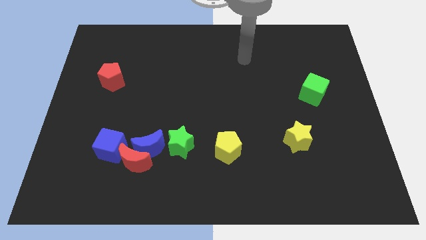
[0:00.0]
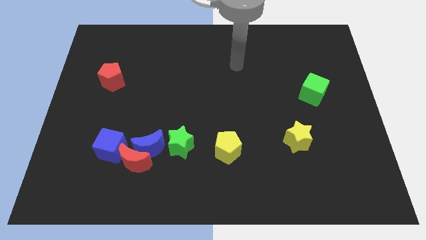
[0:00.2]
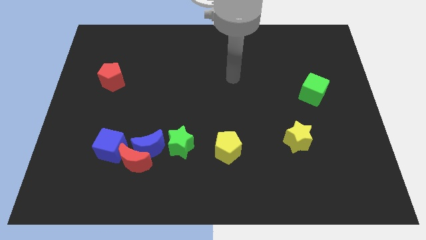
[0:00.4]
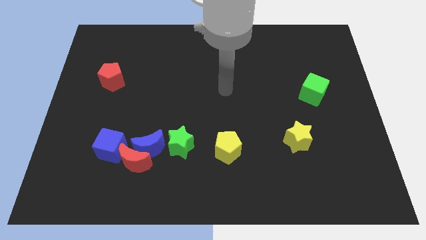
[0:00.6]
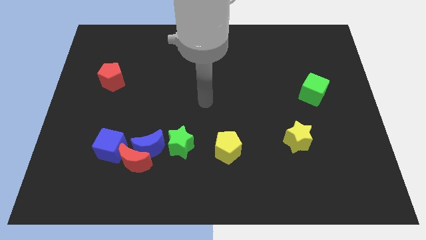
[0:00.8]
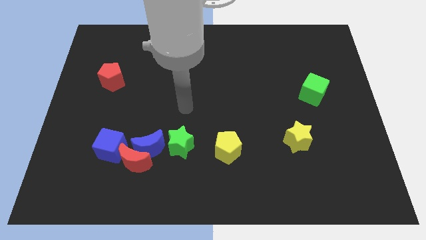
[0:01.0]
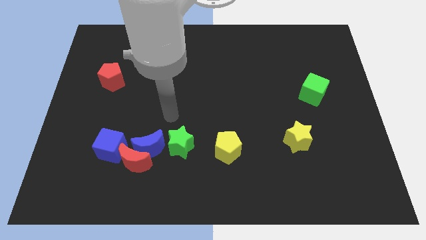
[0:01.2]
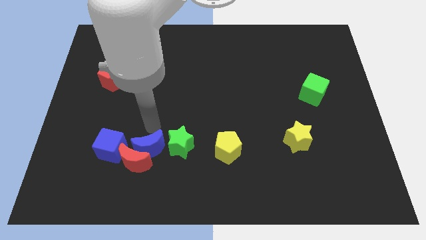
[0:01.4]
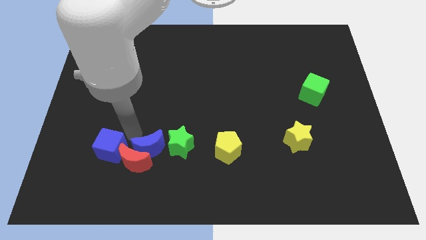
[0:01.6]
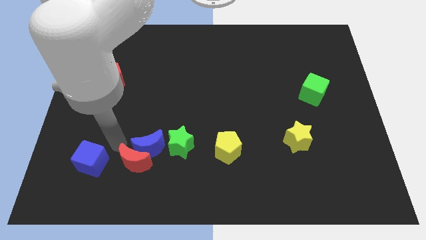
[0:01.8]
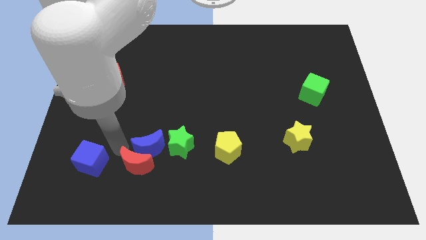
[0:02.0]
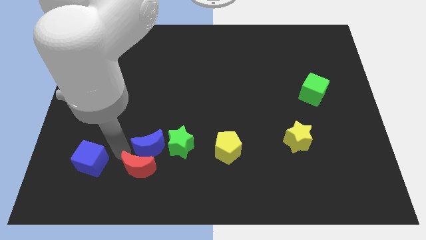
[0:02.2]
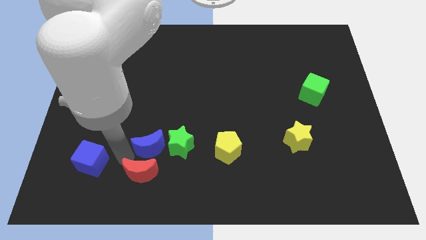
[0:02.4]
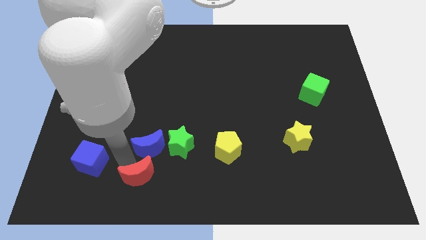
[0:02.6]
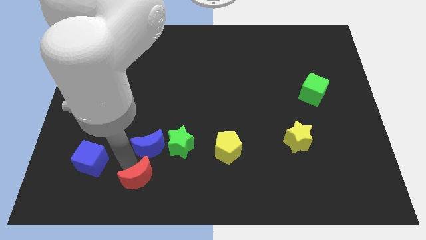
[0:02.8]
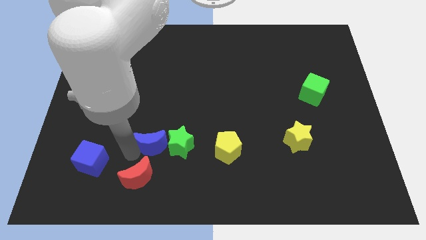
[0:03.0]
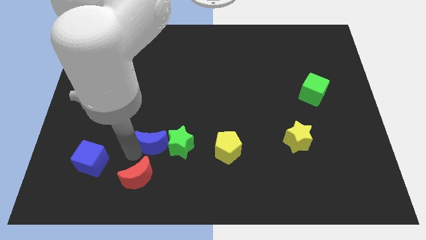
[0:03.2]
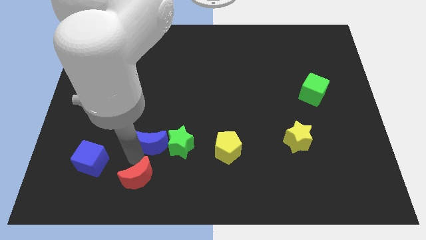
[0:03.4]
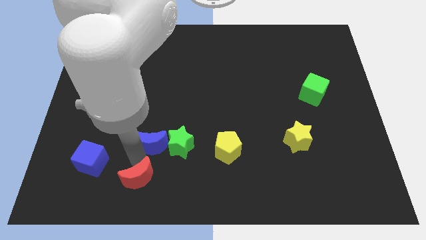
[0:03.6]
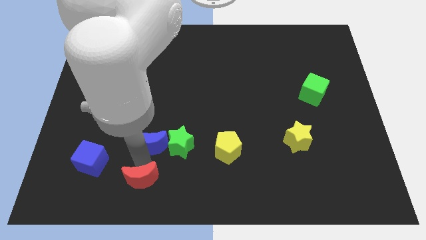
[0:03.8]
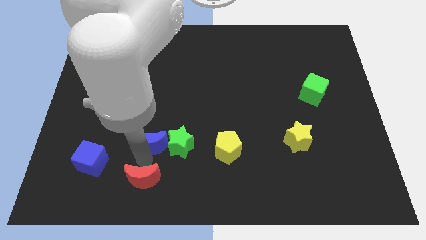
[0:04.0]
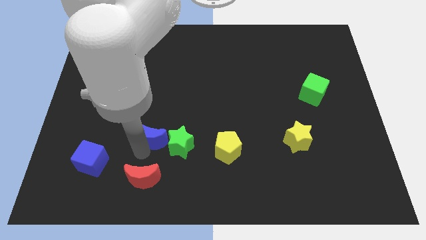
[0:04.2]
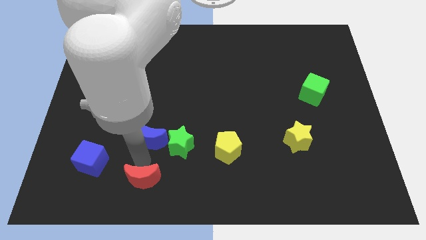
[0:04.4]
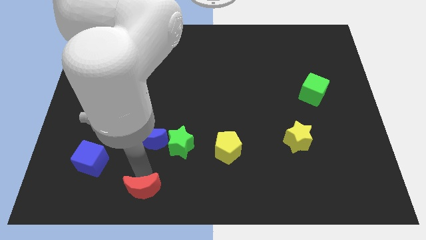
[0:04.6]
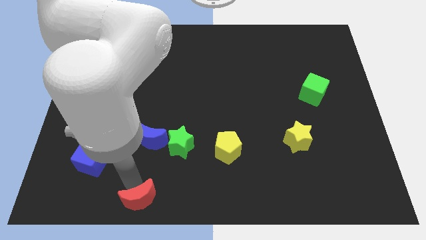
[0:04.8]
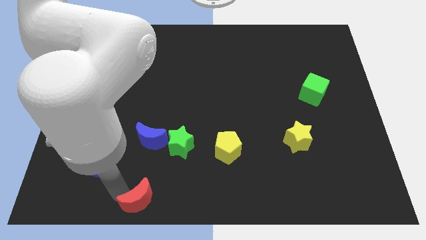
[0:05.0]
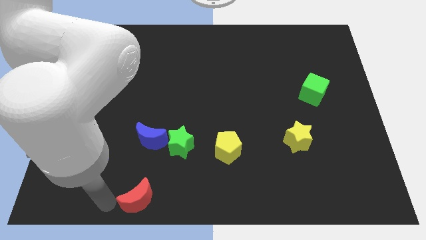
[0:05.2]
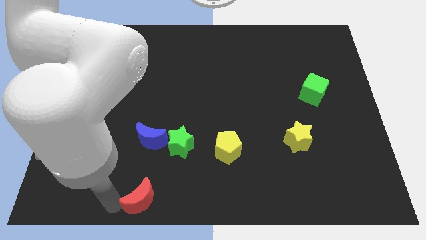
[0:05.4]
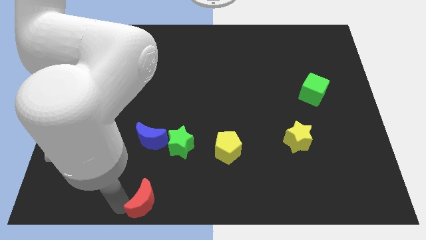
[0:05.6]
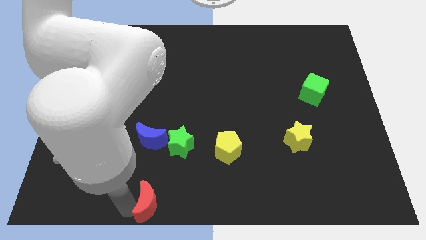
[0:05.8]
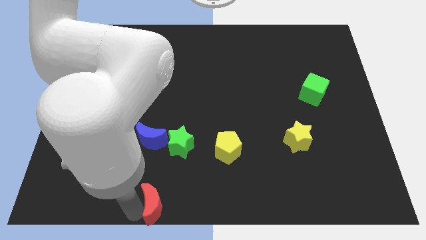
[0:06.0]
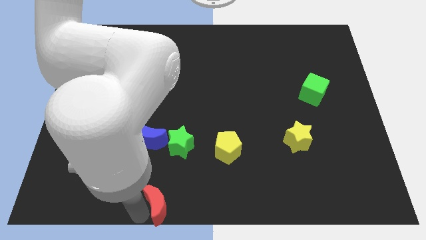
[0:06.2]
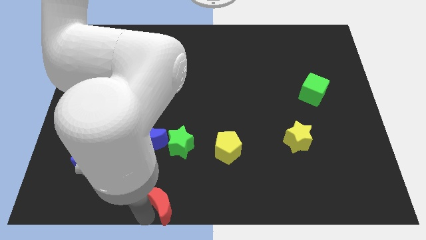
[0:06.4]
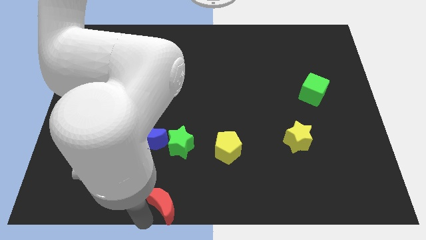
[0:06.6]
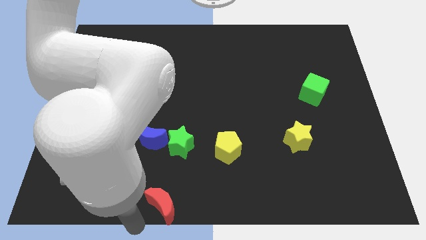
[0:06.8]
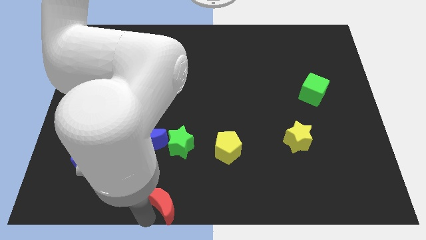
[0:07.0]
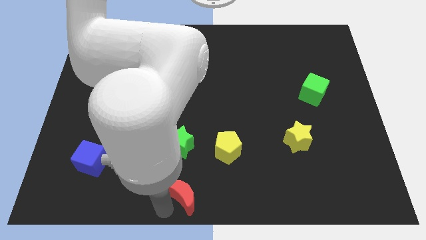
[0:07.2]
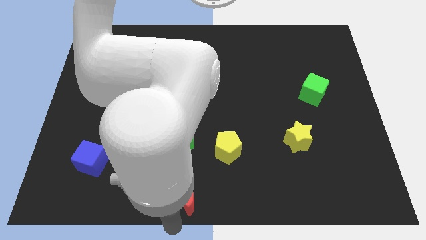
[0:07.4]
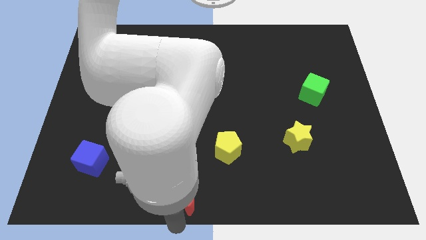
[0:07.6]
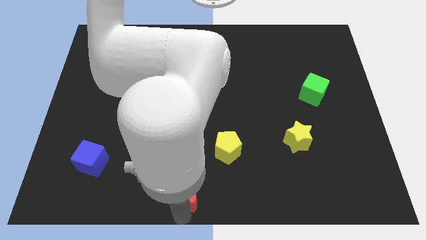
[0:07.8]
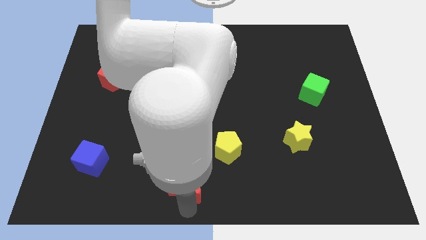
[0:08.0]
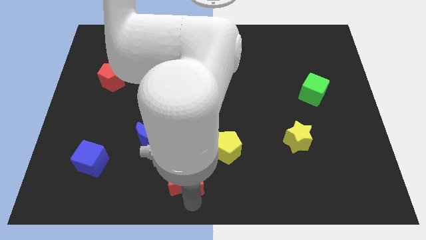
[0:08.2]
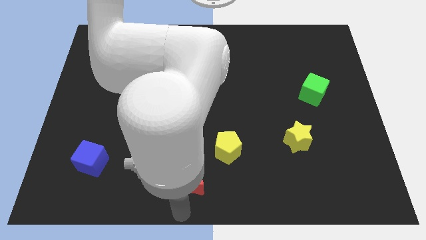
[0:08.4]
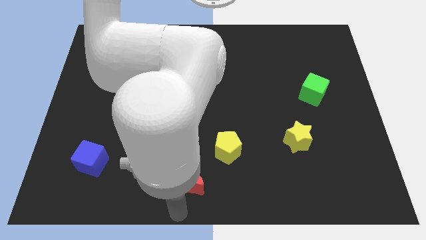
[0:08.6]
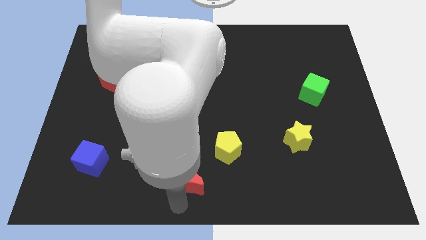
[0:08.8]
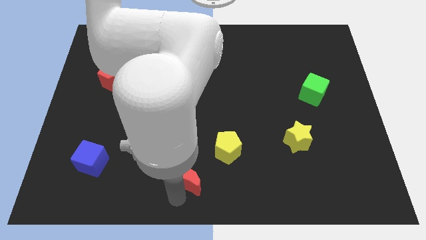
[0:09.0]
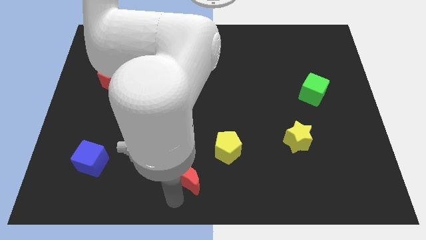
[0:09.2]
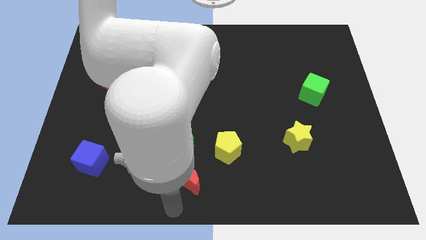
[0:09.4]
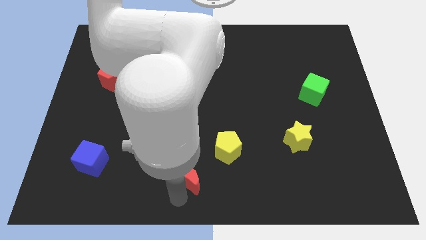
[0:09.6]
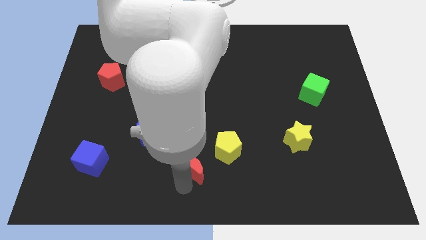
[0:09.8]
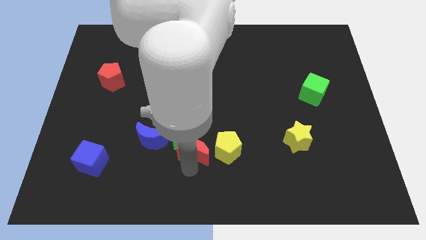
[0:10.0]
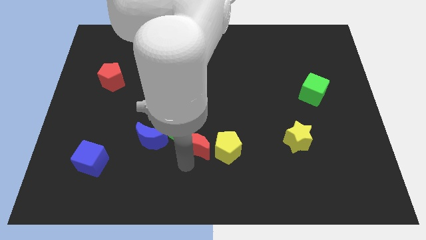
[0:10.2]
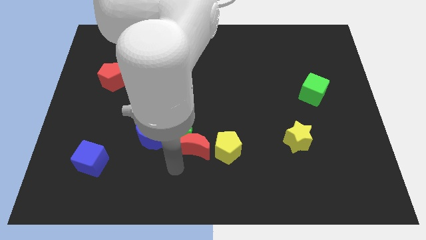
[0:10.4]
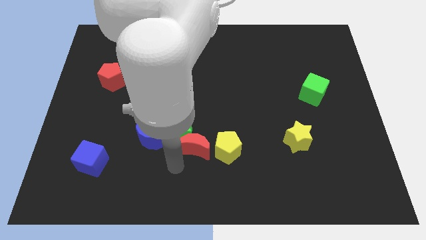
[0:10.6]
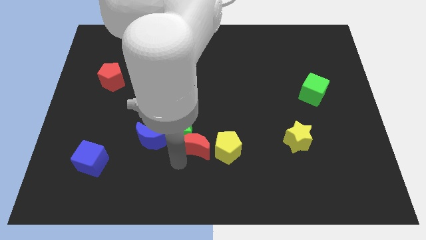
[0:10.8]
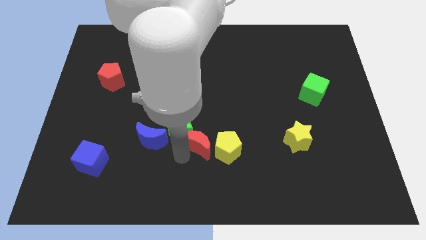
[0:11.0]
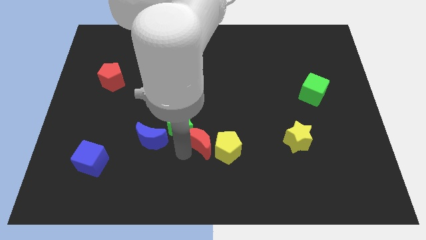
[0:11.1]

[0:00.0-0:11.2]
put the red moon to the middle of the board
